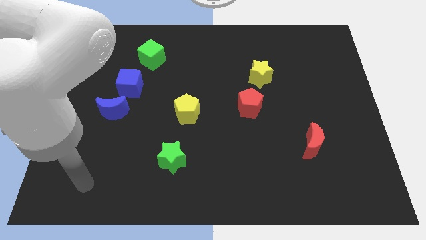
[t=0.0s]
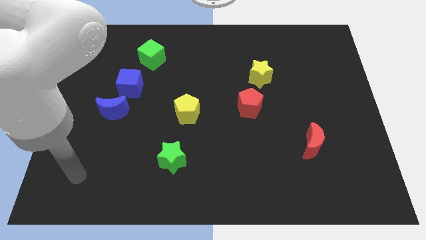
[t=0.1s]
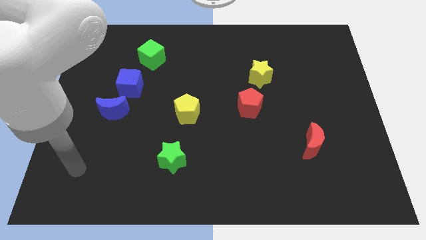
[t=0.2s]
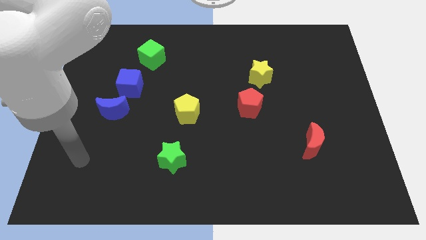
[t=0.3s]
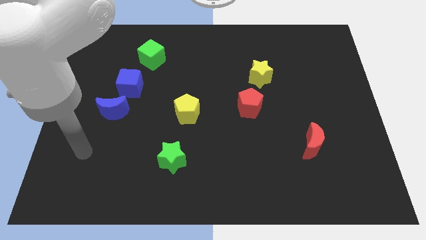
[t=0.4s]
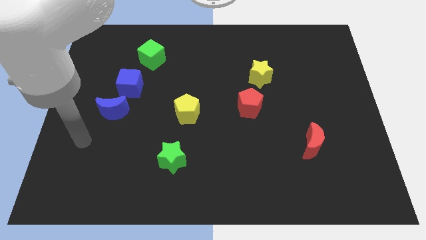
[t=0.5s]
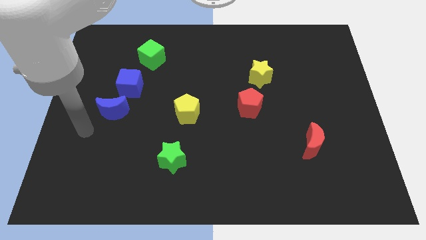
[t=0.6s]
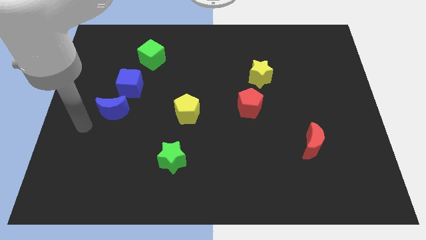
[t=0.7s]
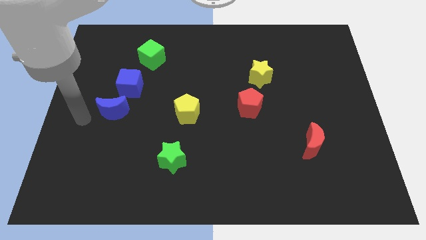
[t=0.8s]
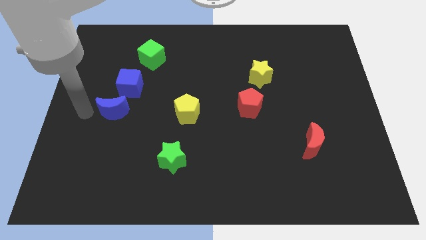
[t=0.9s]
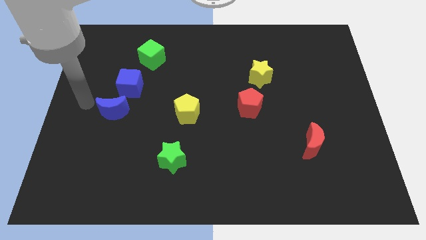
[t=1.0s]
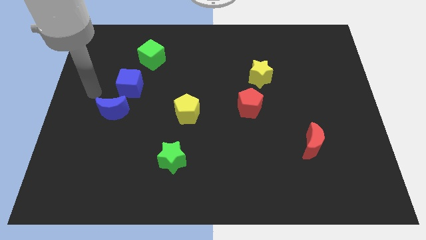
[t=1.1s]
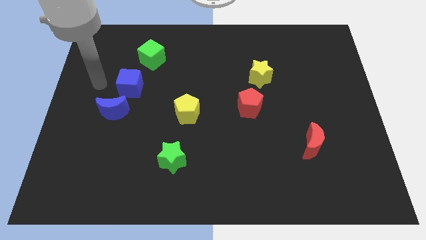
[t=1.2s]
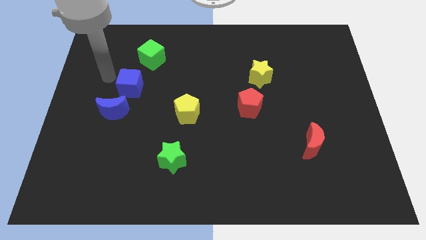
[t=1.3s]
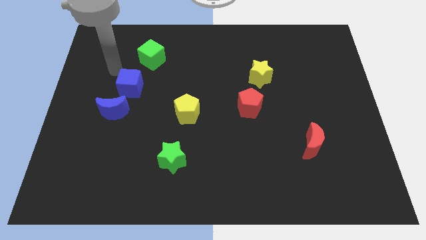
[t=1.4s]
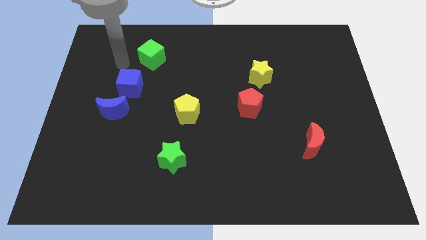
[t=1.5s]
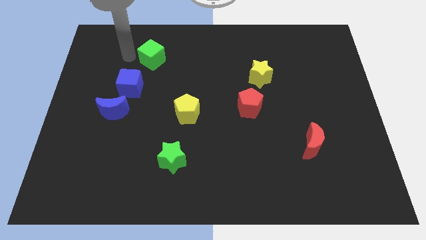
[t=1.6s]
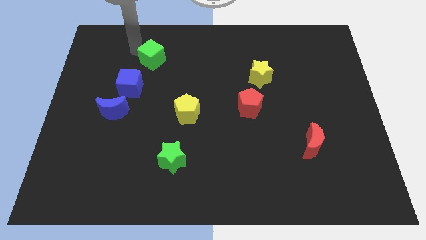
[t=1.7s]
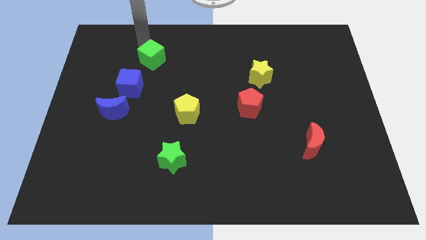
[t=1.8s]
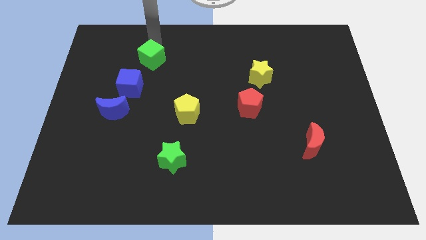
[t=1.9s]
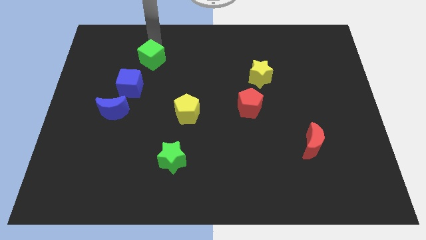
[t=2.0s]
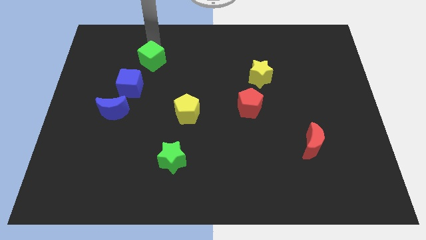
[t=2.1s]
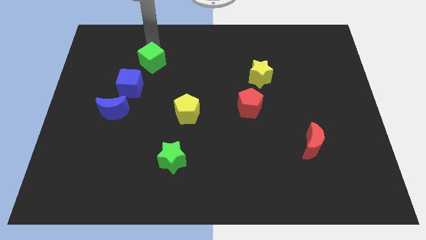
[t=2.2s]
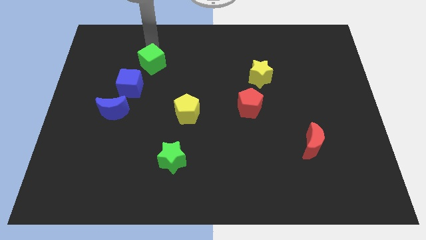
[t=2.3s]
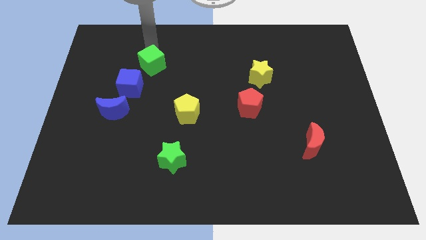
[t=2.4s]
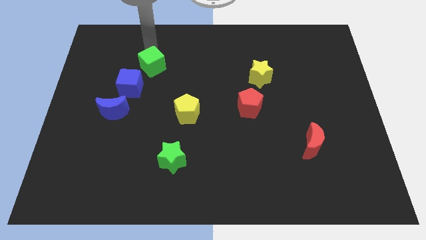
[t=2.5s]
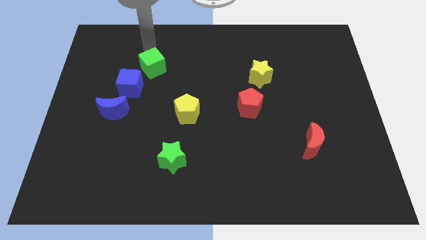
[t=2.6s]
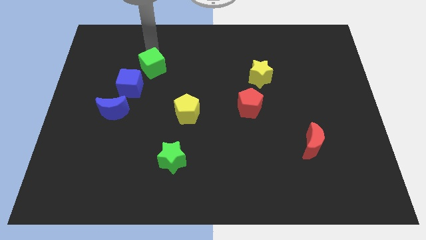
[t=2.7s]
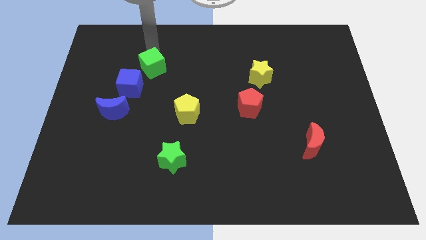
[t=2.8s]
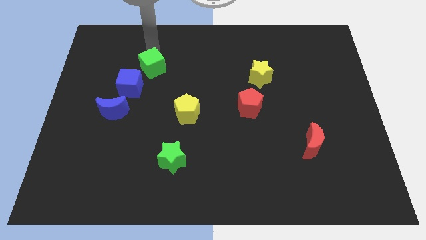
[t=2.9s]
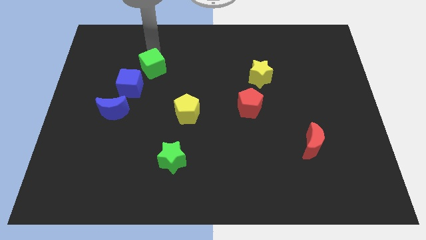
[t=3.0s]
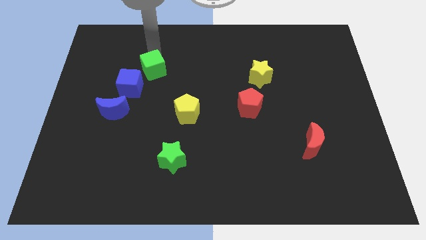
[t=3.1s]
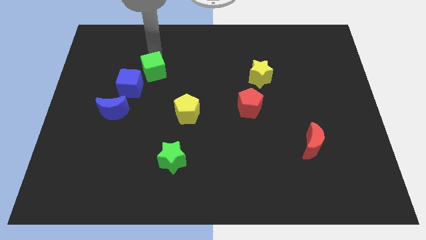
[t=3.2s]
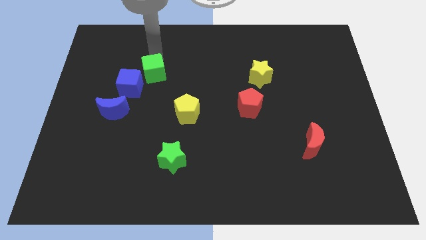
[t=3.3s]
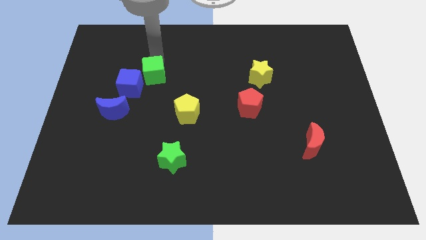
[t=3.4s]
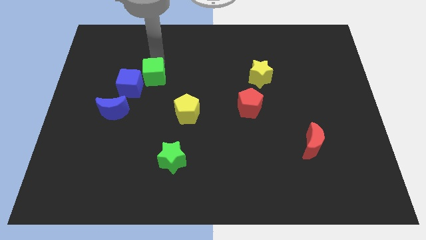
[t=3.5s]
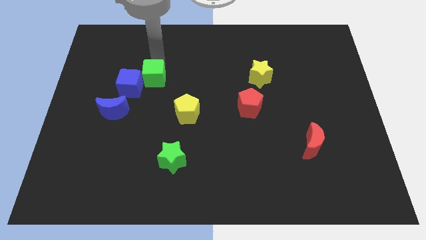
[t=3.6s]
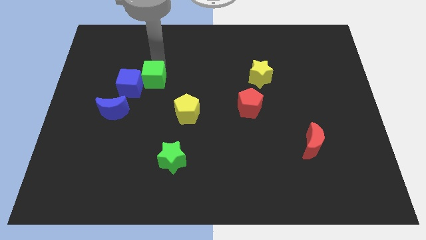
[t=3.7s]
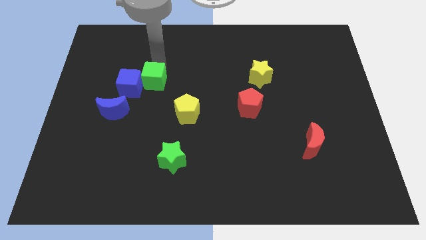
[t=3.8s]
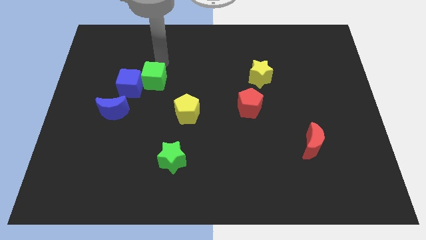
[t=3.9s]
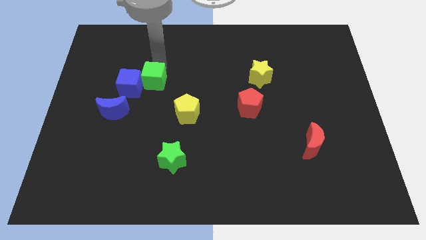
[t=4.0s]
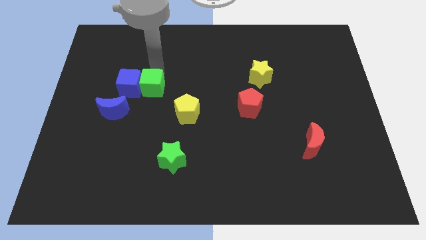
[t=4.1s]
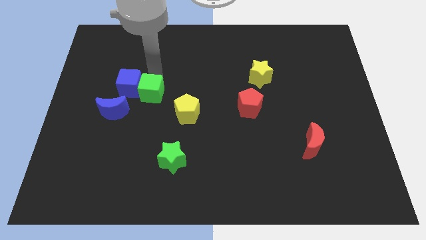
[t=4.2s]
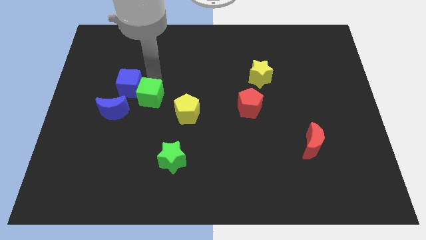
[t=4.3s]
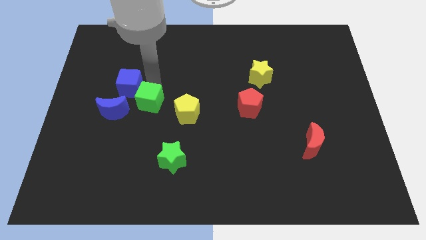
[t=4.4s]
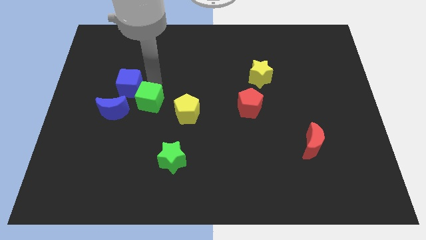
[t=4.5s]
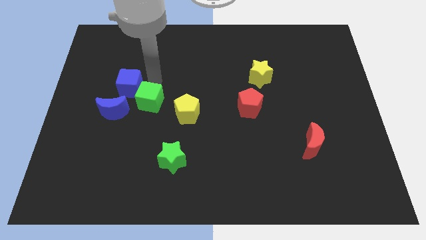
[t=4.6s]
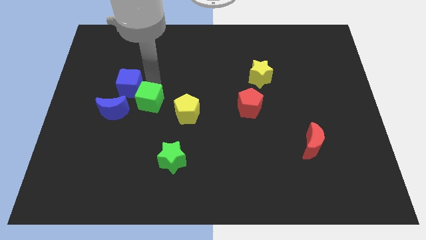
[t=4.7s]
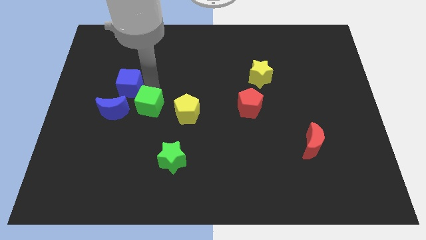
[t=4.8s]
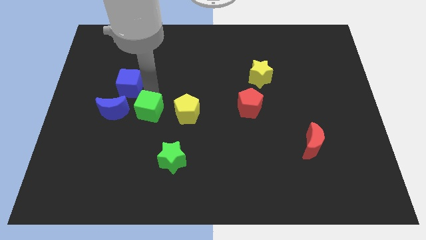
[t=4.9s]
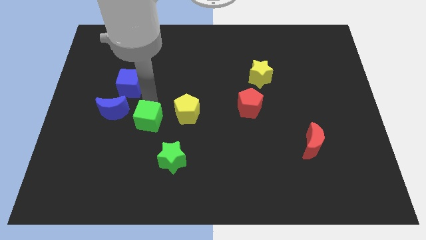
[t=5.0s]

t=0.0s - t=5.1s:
push the green cube downwards

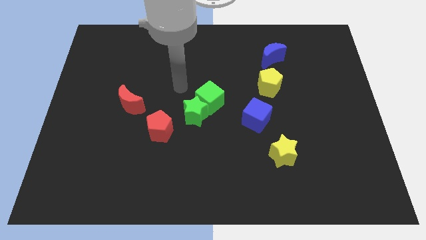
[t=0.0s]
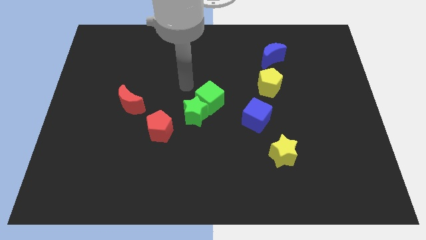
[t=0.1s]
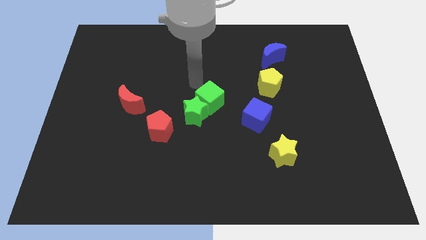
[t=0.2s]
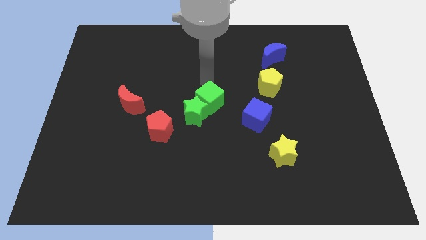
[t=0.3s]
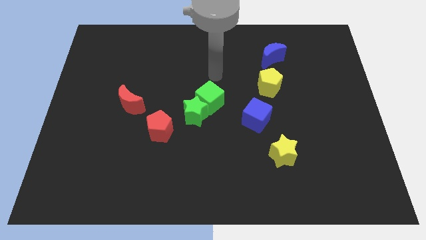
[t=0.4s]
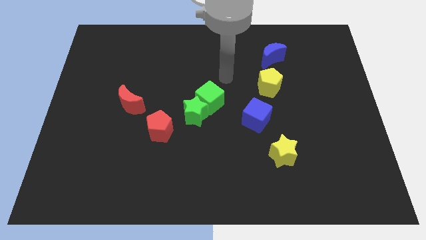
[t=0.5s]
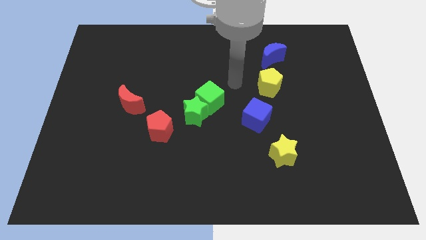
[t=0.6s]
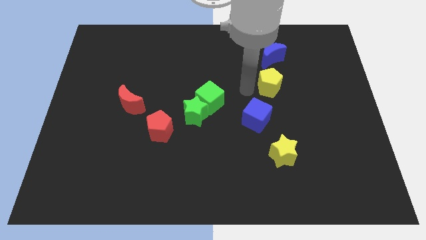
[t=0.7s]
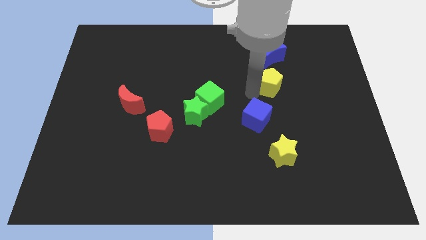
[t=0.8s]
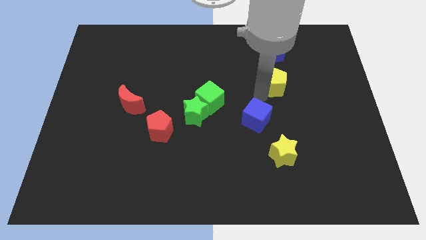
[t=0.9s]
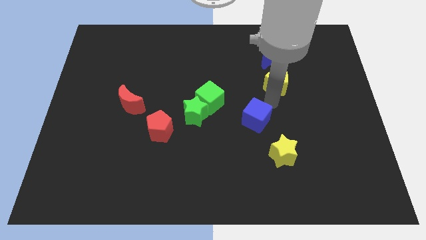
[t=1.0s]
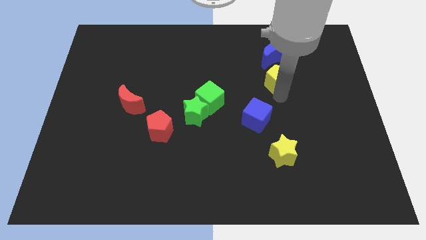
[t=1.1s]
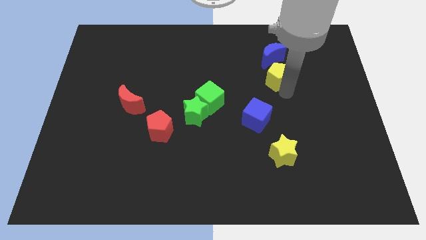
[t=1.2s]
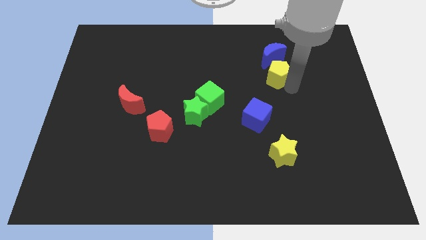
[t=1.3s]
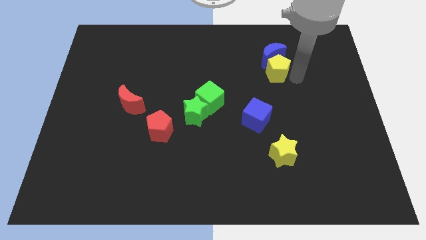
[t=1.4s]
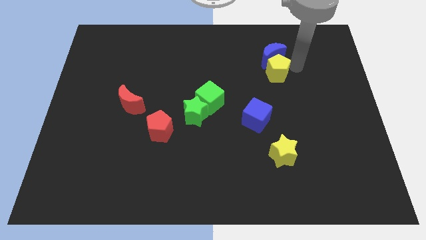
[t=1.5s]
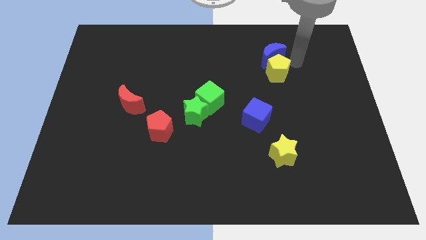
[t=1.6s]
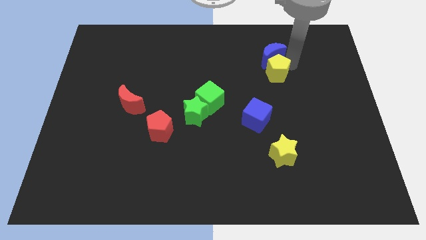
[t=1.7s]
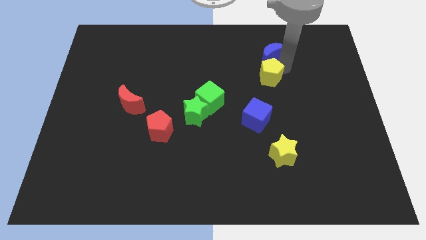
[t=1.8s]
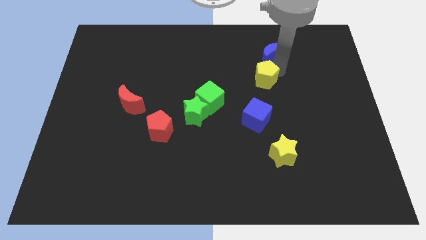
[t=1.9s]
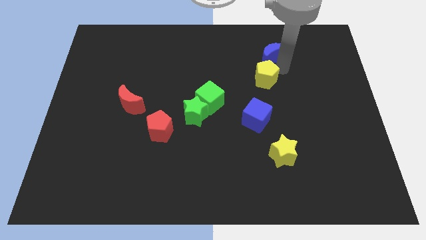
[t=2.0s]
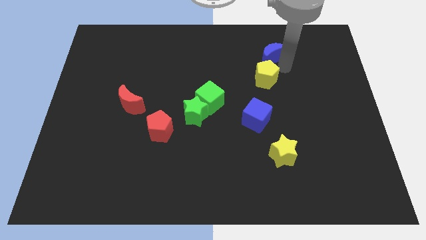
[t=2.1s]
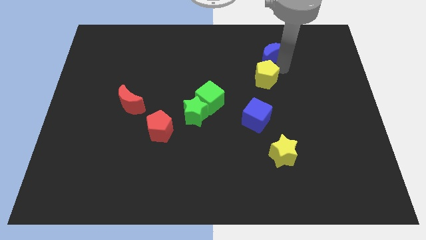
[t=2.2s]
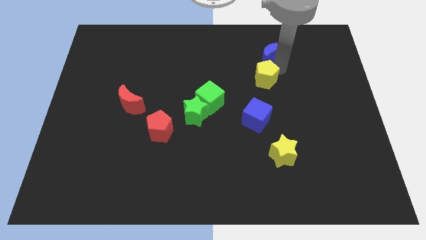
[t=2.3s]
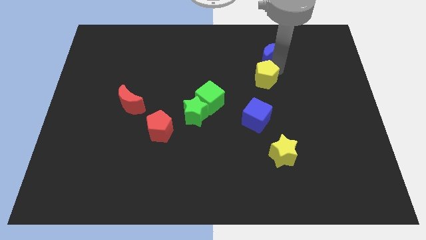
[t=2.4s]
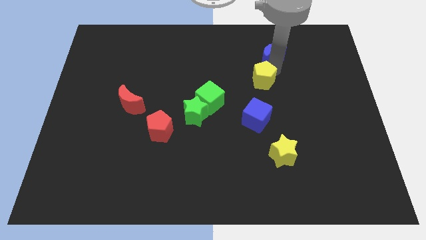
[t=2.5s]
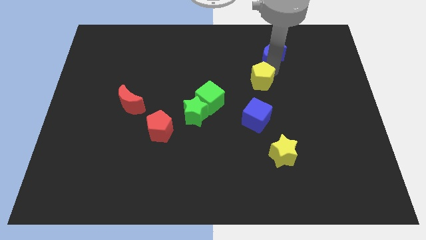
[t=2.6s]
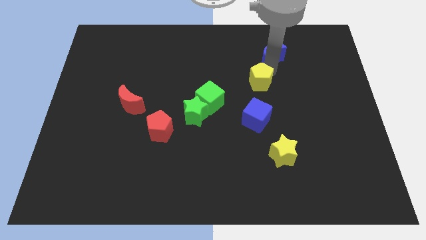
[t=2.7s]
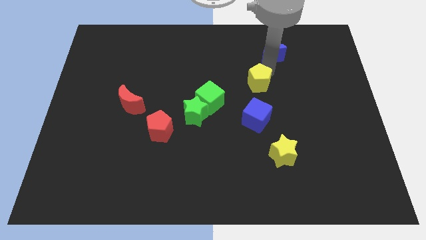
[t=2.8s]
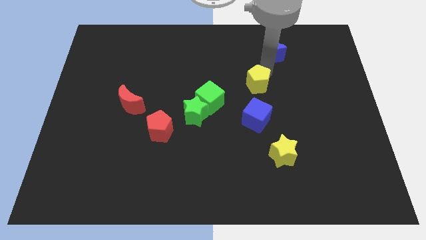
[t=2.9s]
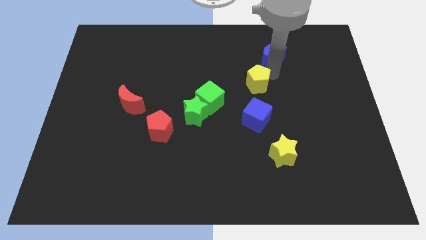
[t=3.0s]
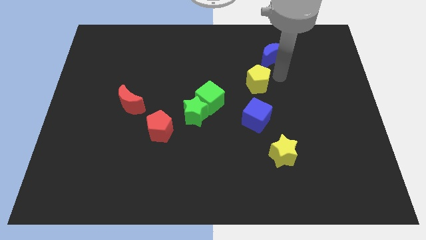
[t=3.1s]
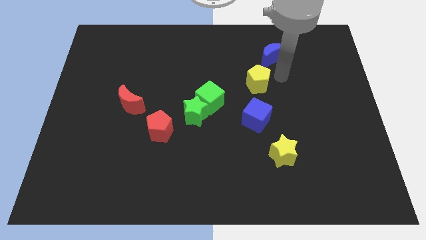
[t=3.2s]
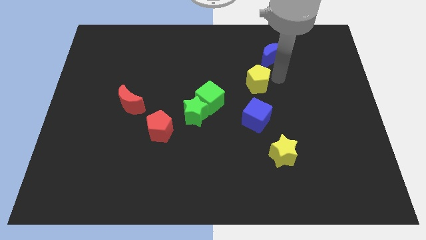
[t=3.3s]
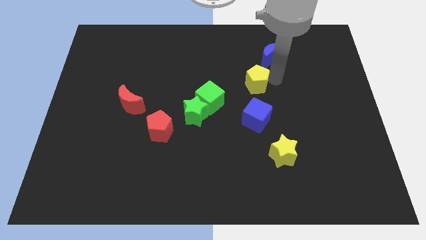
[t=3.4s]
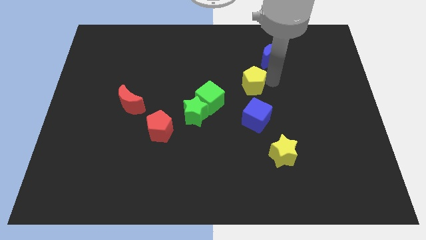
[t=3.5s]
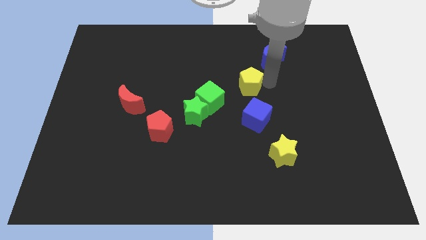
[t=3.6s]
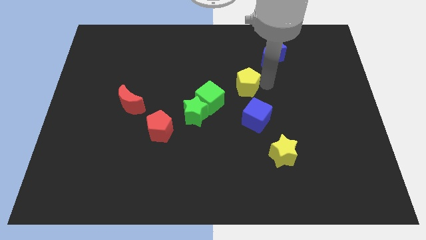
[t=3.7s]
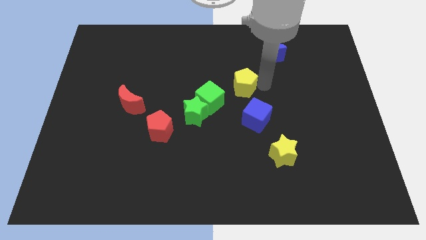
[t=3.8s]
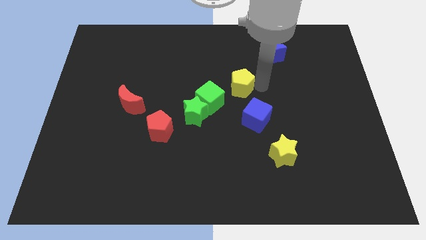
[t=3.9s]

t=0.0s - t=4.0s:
slide the yellow pentagon a bit to the left
